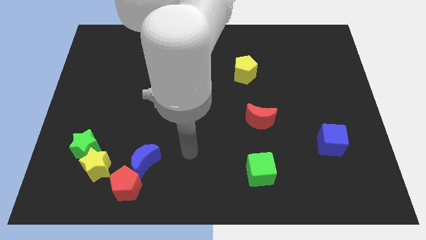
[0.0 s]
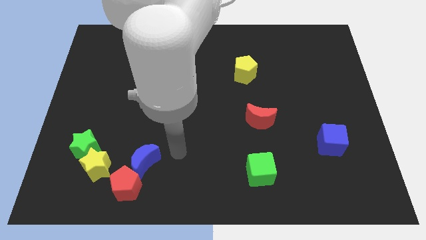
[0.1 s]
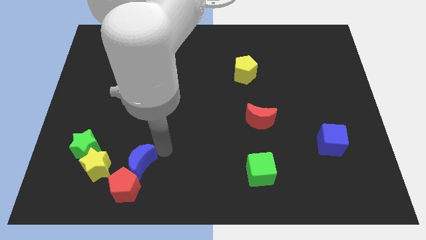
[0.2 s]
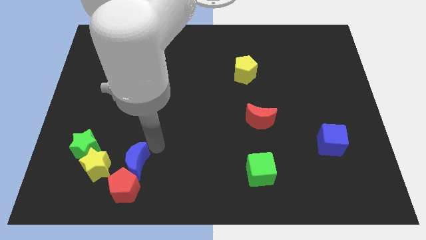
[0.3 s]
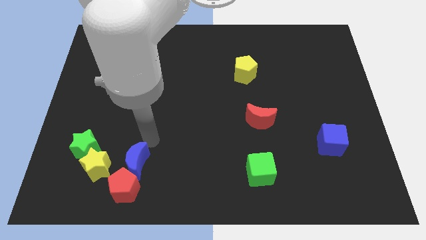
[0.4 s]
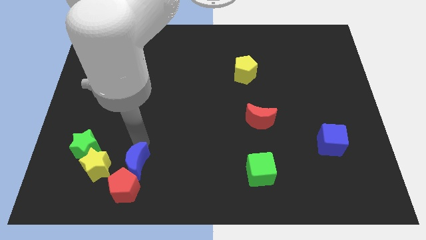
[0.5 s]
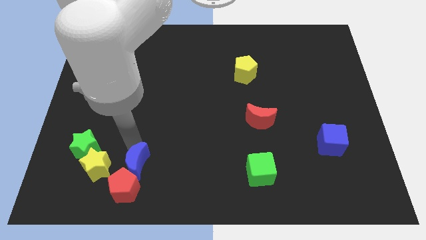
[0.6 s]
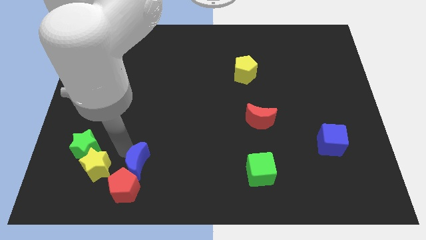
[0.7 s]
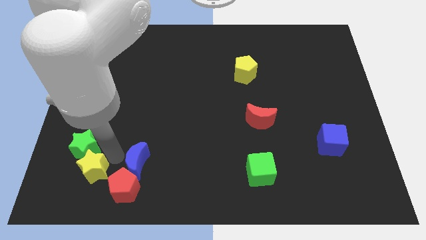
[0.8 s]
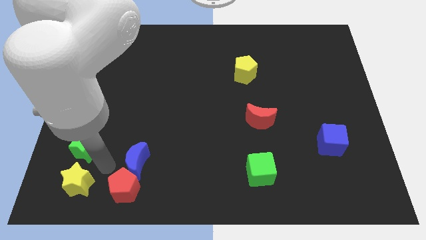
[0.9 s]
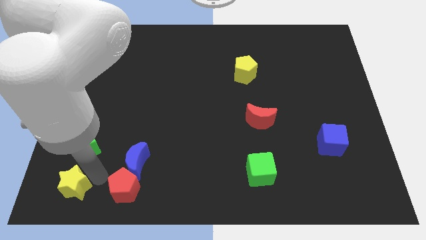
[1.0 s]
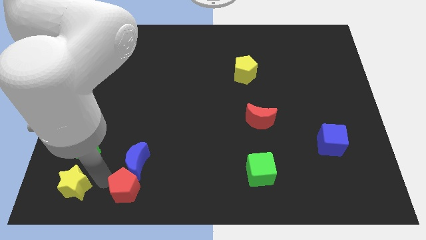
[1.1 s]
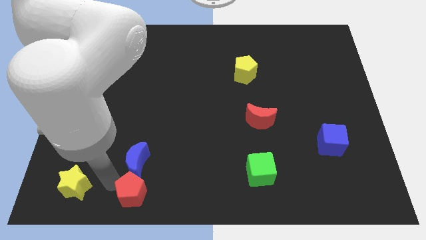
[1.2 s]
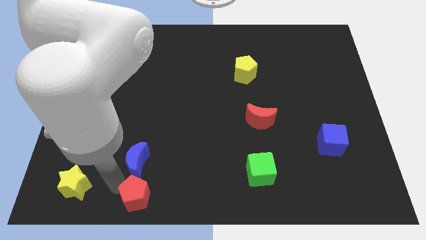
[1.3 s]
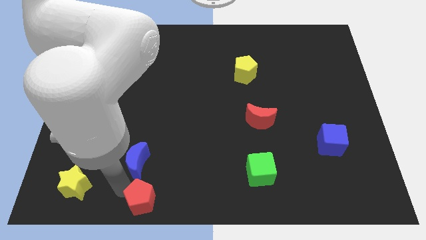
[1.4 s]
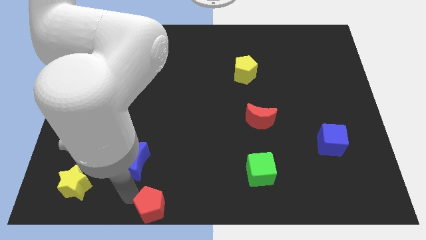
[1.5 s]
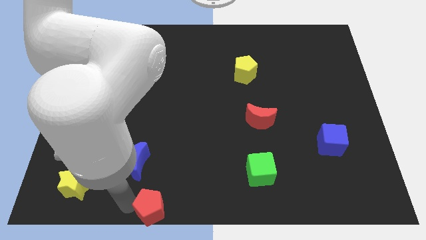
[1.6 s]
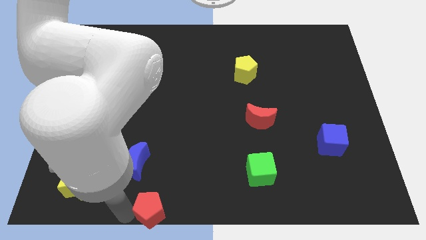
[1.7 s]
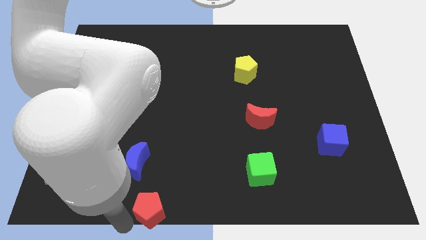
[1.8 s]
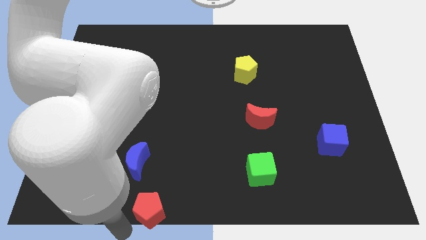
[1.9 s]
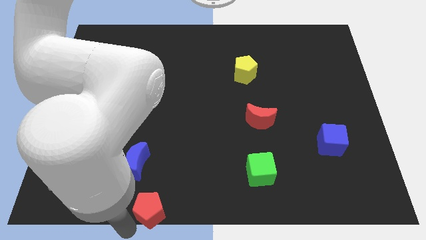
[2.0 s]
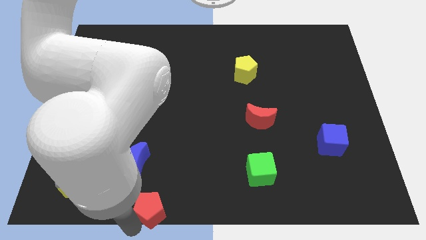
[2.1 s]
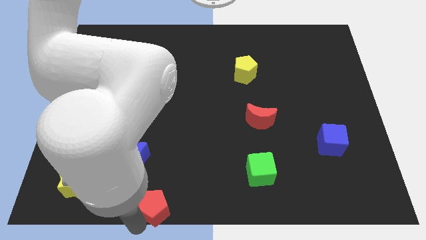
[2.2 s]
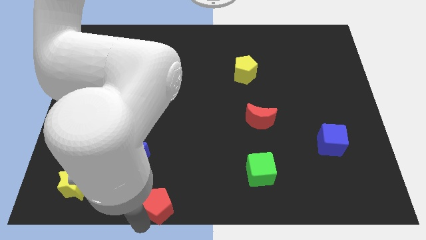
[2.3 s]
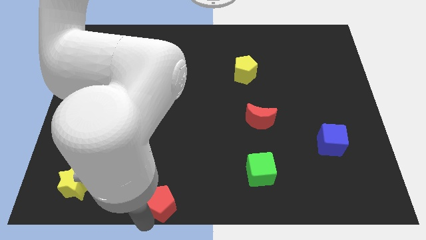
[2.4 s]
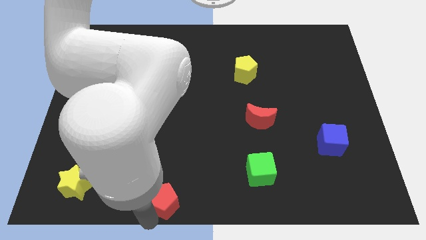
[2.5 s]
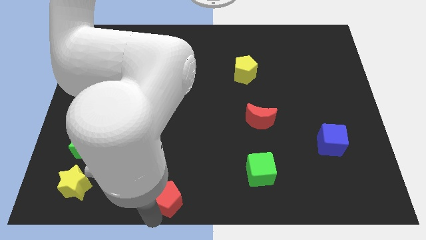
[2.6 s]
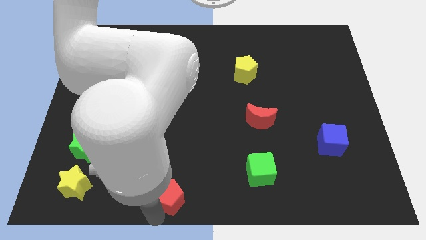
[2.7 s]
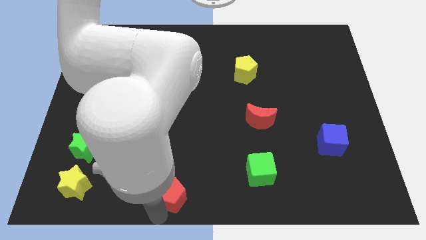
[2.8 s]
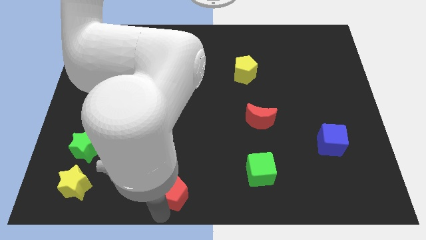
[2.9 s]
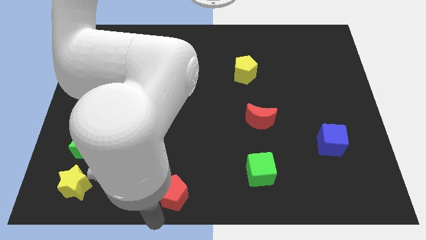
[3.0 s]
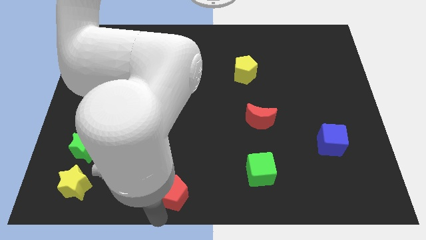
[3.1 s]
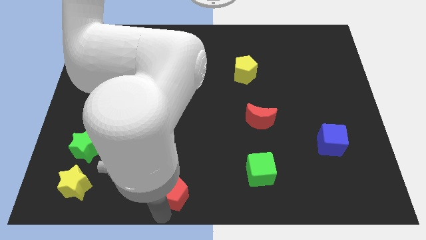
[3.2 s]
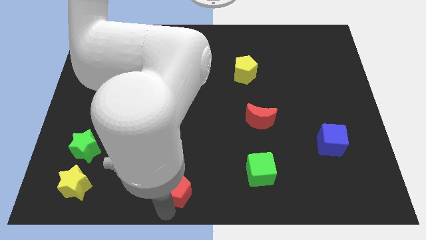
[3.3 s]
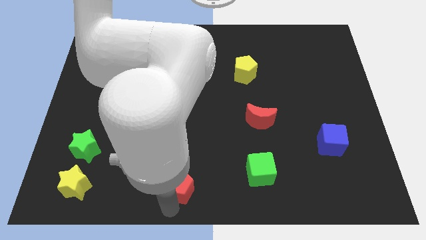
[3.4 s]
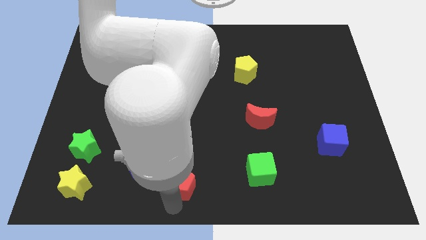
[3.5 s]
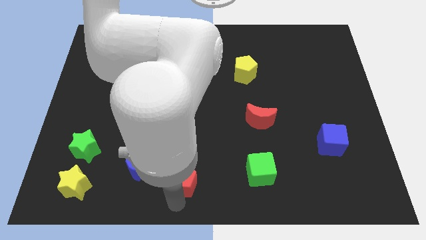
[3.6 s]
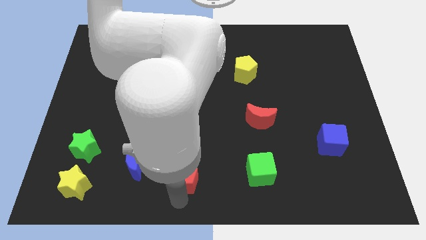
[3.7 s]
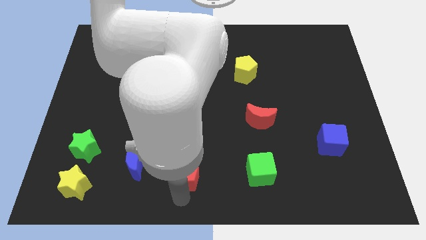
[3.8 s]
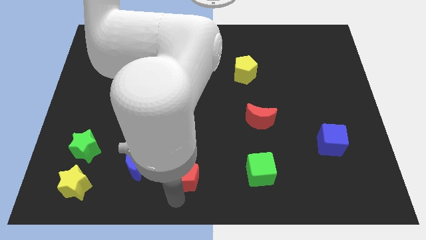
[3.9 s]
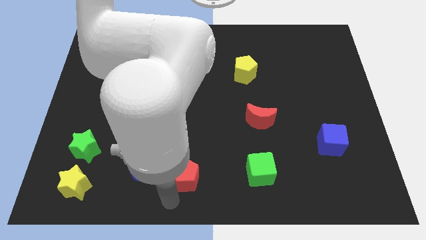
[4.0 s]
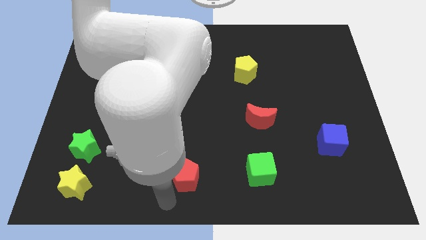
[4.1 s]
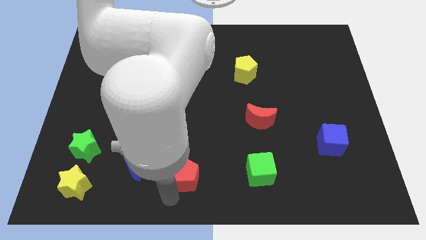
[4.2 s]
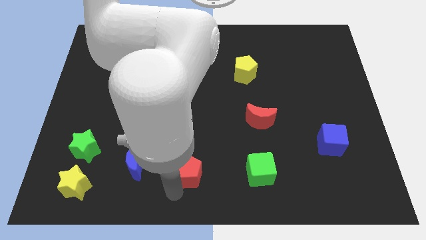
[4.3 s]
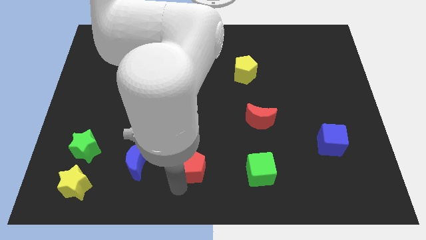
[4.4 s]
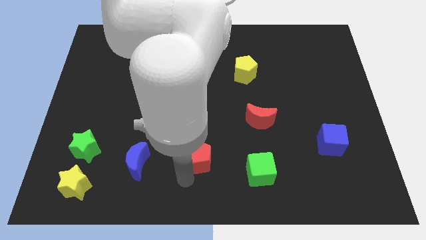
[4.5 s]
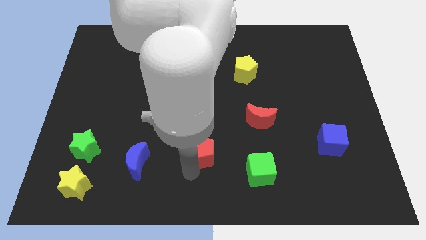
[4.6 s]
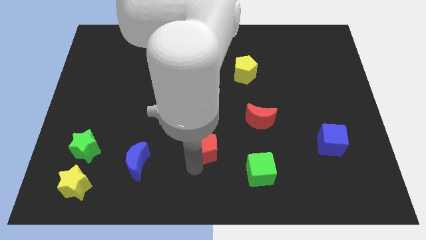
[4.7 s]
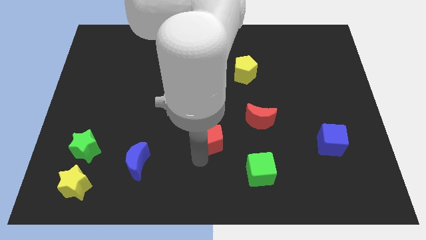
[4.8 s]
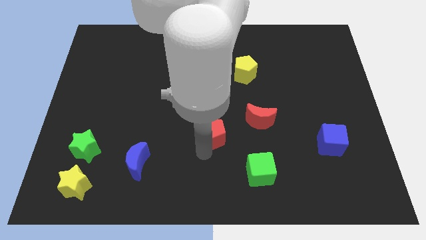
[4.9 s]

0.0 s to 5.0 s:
slide the red pentagon diagonally upwards and to the right

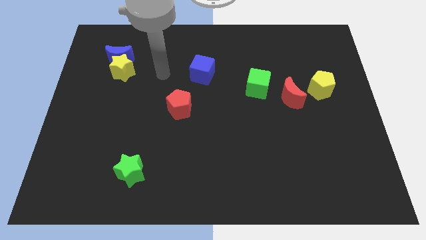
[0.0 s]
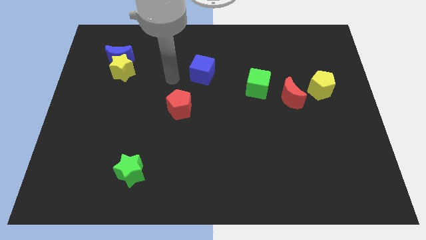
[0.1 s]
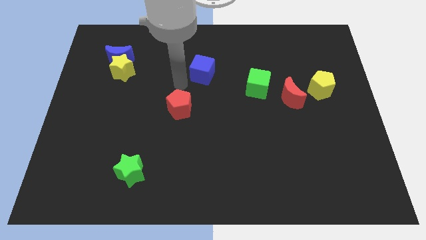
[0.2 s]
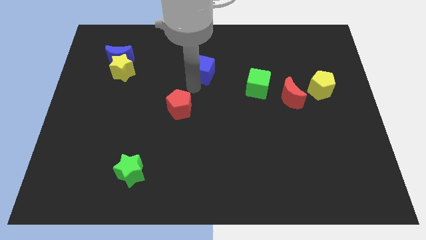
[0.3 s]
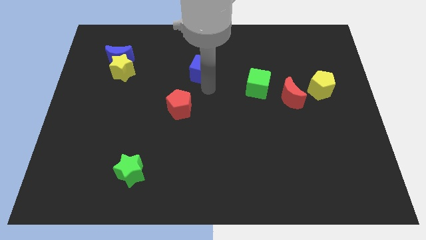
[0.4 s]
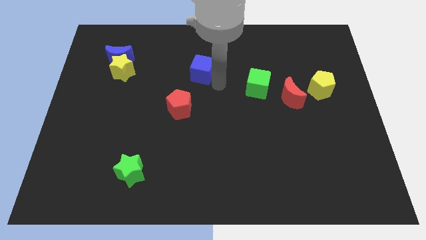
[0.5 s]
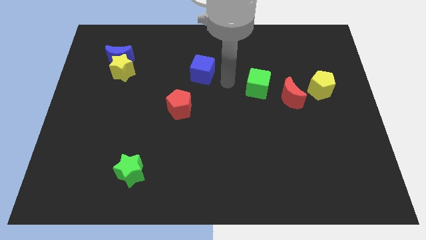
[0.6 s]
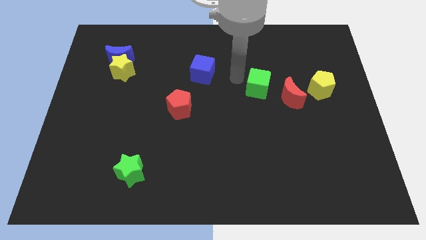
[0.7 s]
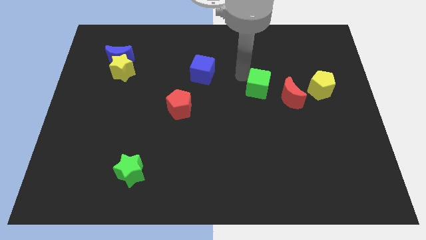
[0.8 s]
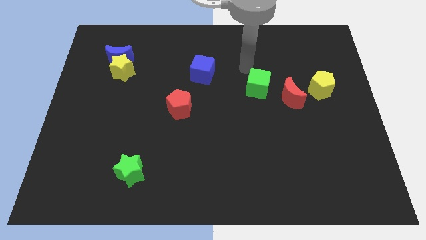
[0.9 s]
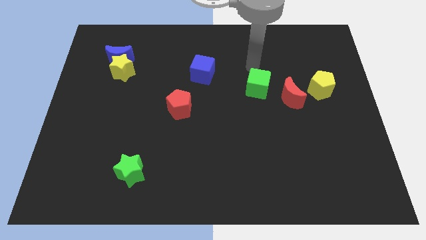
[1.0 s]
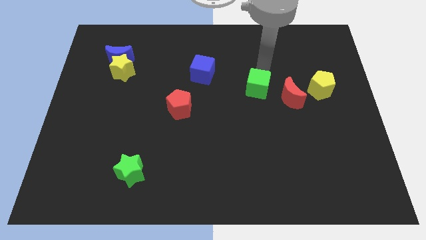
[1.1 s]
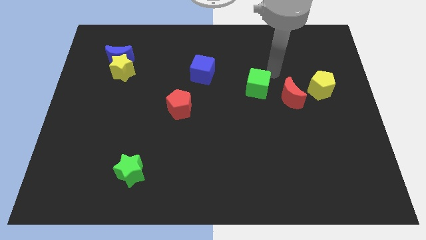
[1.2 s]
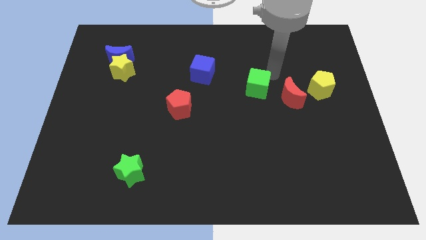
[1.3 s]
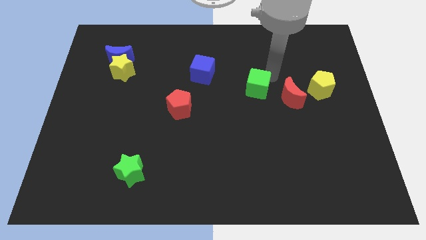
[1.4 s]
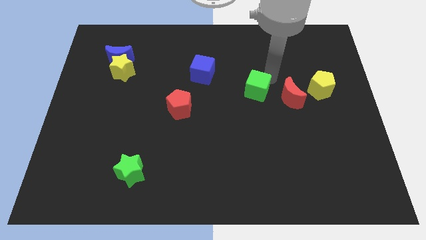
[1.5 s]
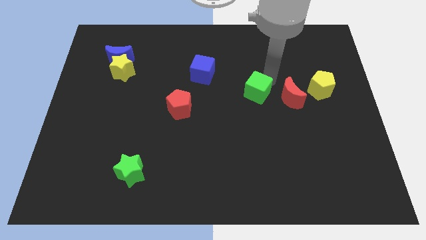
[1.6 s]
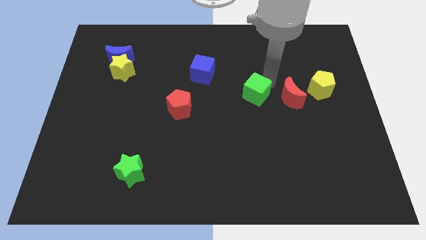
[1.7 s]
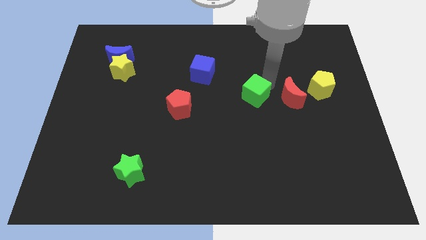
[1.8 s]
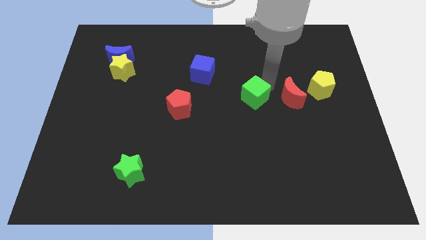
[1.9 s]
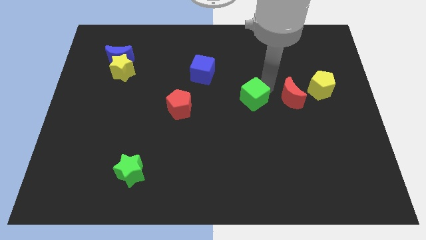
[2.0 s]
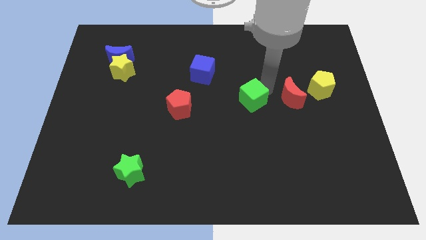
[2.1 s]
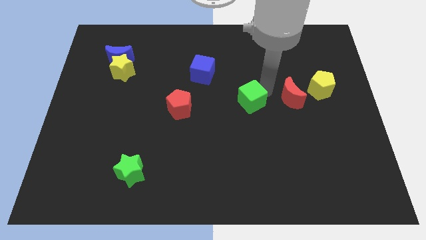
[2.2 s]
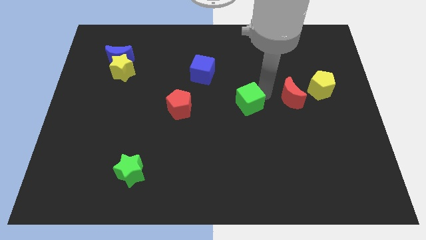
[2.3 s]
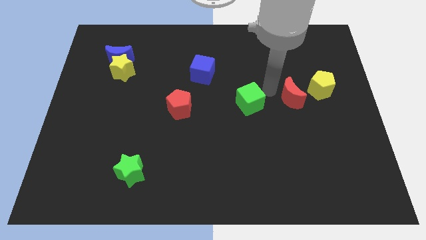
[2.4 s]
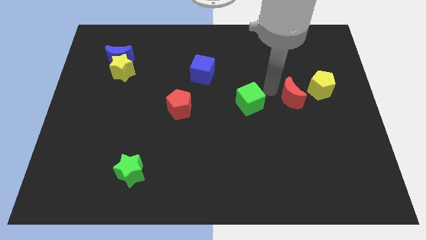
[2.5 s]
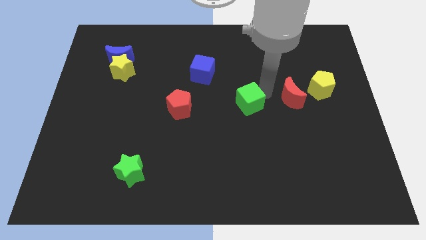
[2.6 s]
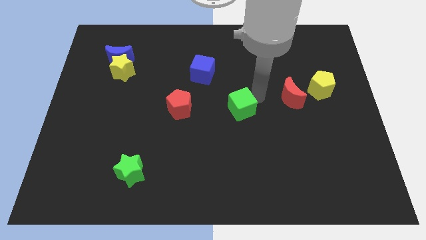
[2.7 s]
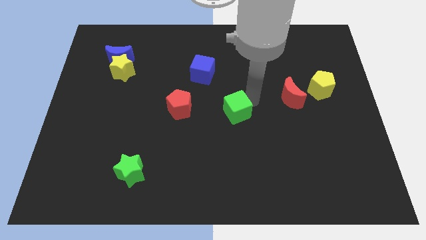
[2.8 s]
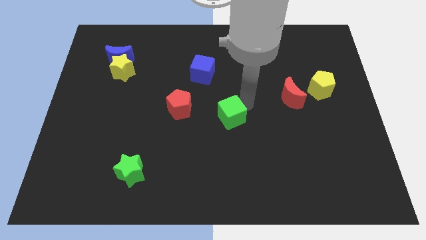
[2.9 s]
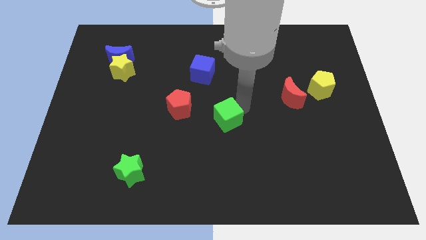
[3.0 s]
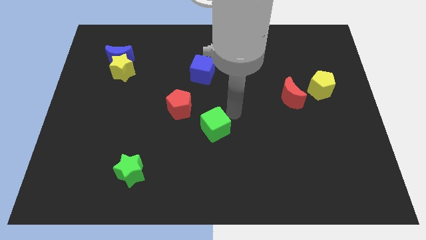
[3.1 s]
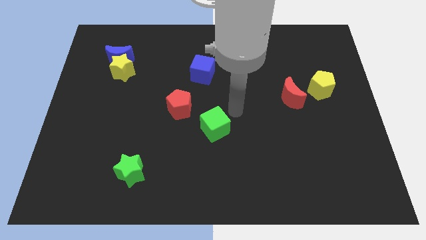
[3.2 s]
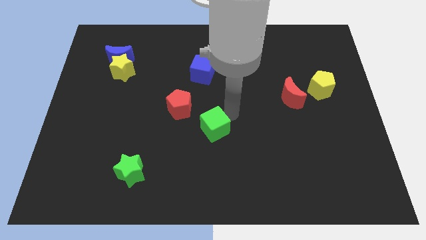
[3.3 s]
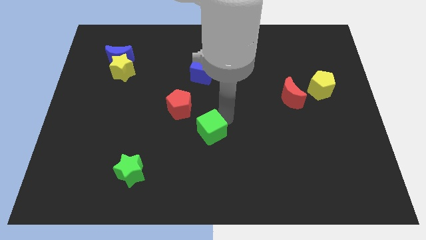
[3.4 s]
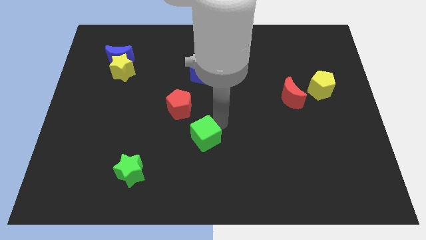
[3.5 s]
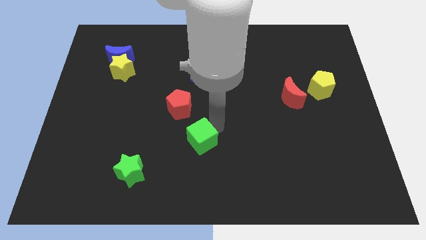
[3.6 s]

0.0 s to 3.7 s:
slide the green cube down and to the left diagonally
